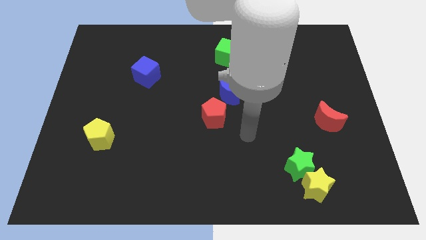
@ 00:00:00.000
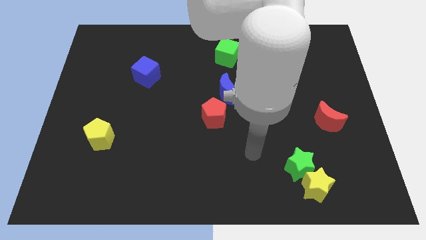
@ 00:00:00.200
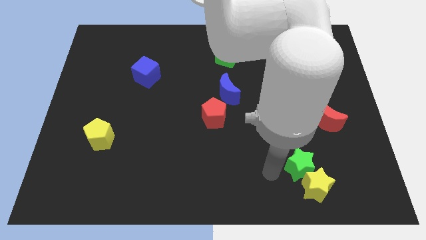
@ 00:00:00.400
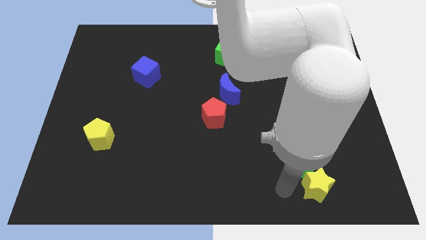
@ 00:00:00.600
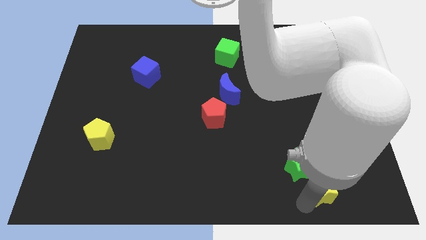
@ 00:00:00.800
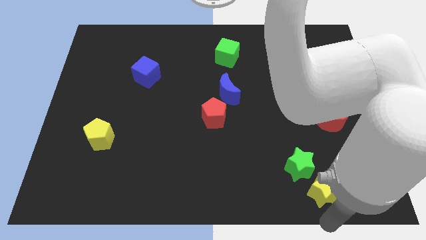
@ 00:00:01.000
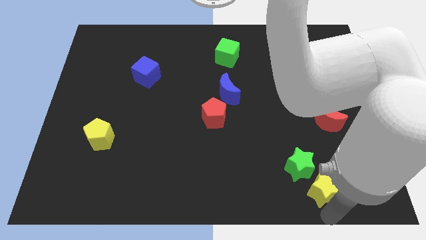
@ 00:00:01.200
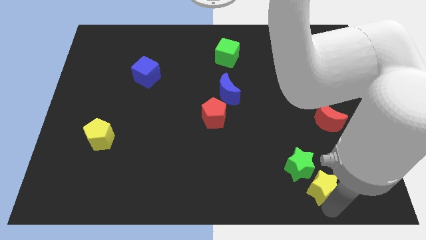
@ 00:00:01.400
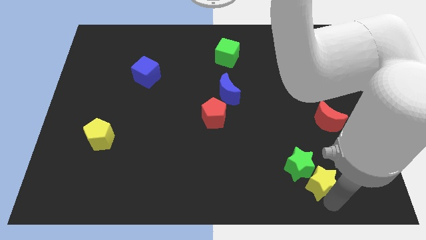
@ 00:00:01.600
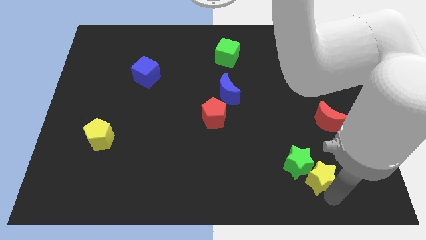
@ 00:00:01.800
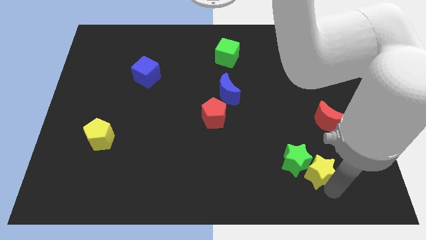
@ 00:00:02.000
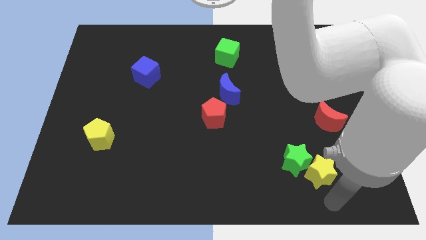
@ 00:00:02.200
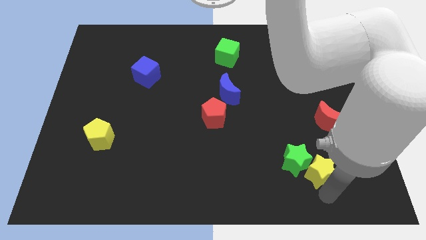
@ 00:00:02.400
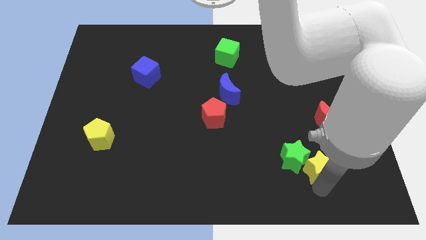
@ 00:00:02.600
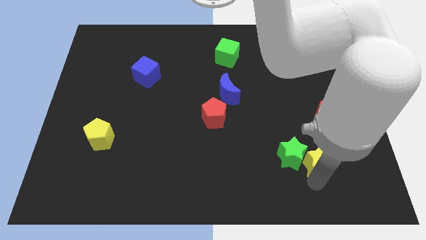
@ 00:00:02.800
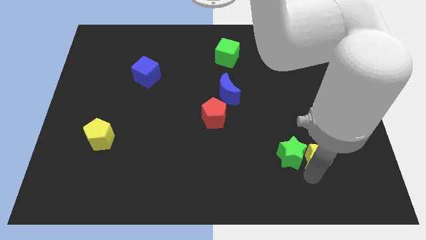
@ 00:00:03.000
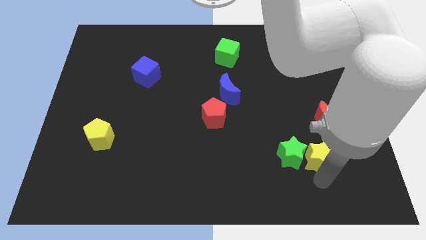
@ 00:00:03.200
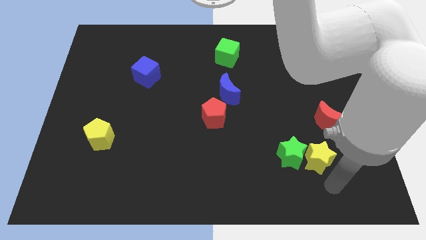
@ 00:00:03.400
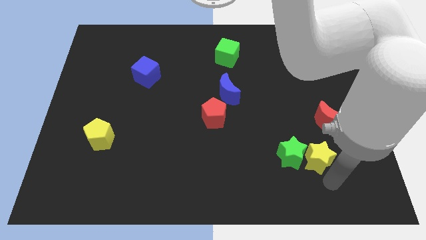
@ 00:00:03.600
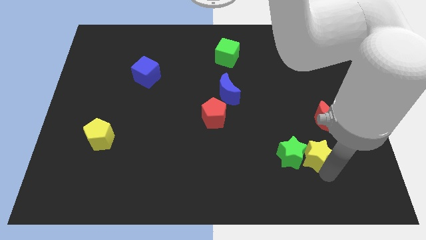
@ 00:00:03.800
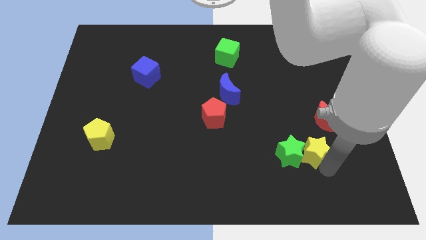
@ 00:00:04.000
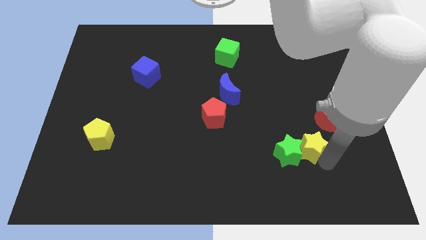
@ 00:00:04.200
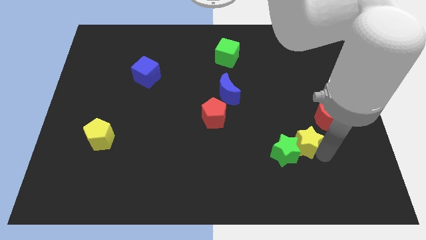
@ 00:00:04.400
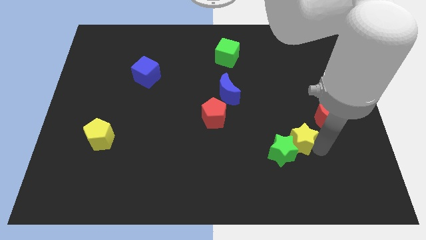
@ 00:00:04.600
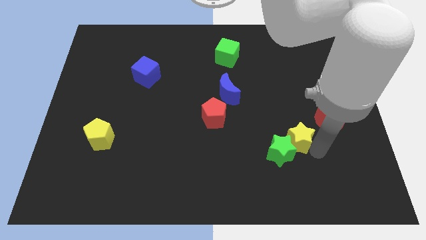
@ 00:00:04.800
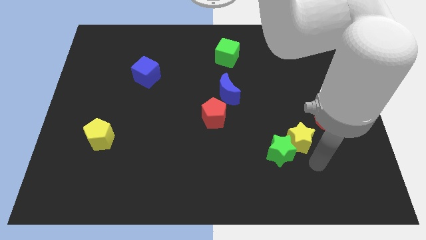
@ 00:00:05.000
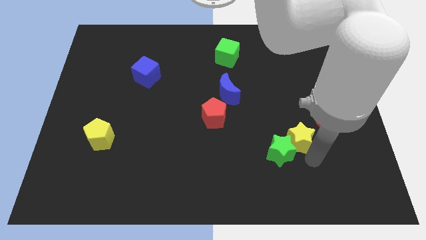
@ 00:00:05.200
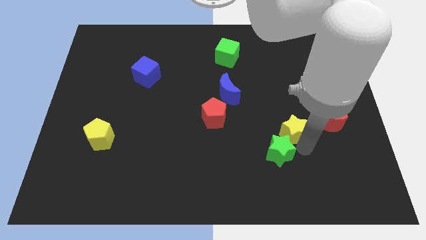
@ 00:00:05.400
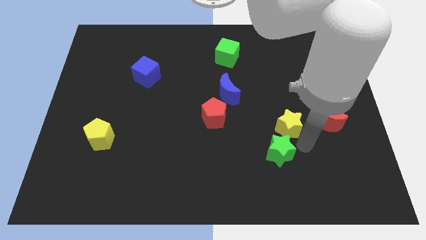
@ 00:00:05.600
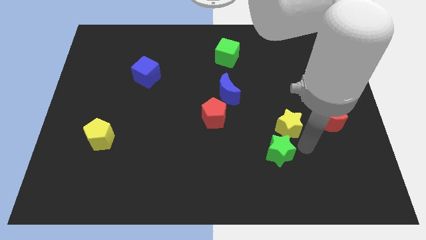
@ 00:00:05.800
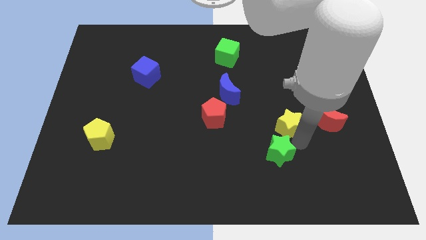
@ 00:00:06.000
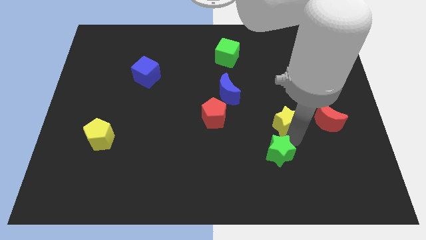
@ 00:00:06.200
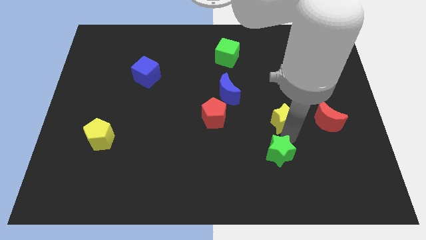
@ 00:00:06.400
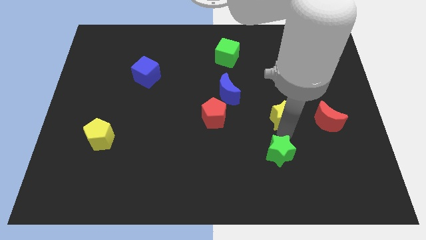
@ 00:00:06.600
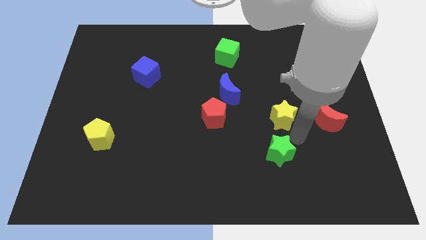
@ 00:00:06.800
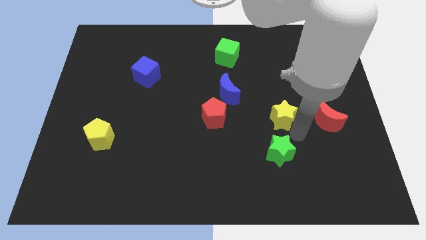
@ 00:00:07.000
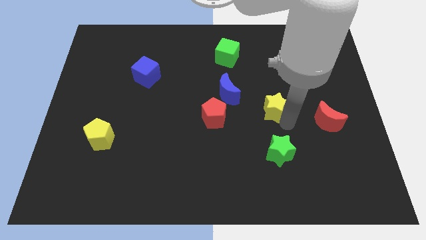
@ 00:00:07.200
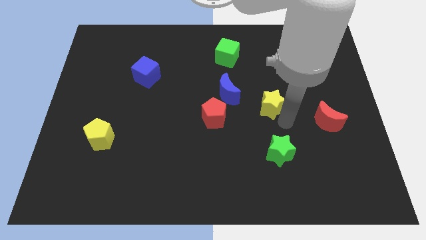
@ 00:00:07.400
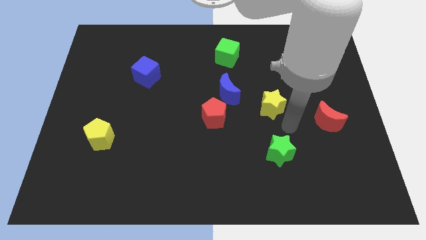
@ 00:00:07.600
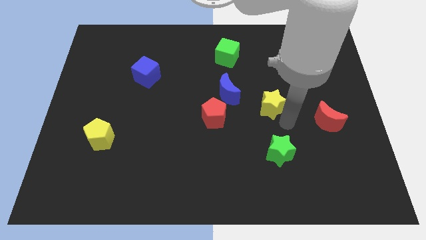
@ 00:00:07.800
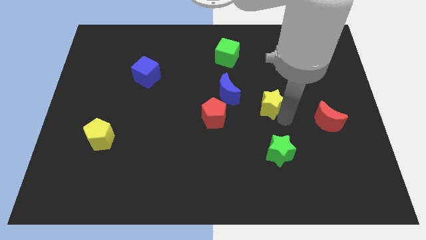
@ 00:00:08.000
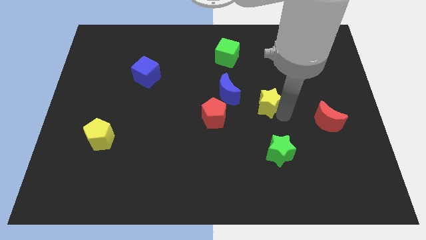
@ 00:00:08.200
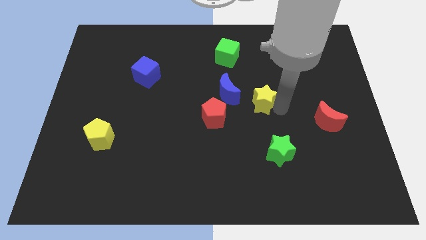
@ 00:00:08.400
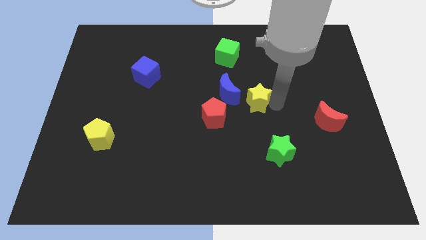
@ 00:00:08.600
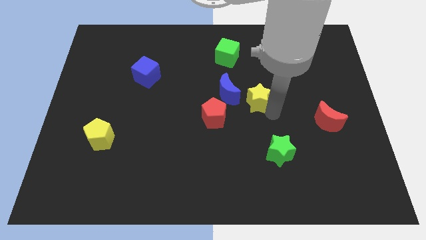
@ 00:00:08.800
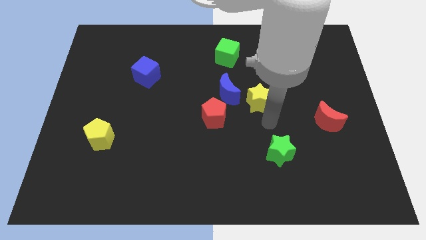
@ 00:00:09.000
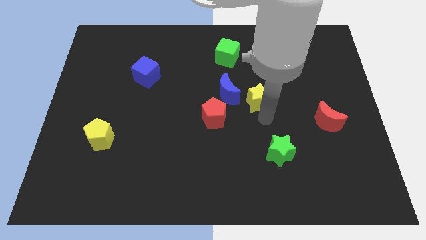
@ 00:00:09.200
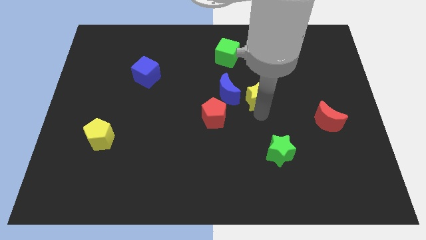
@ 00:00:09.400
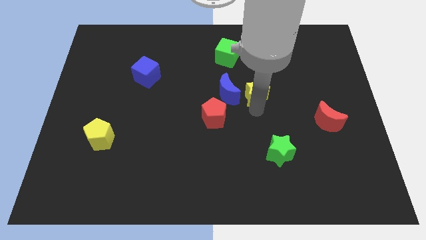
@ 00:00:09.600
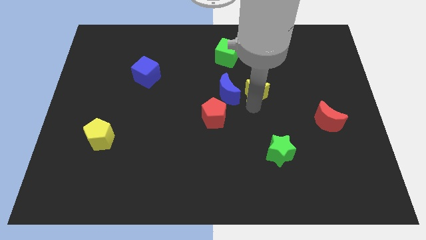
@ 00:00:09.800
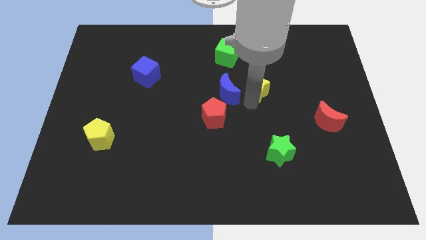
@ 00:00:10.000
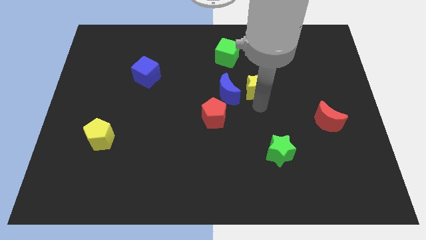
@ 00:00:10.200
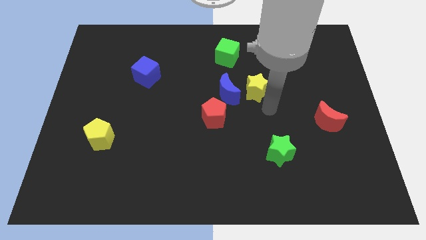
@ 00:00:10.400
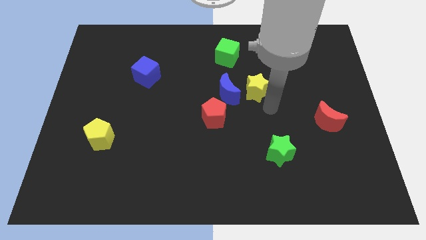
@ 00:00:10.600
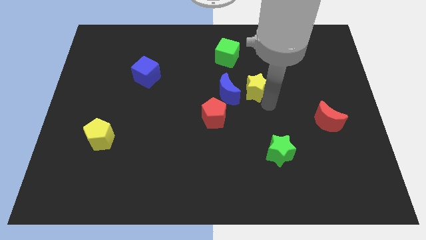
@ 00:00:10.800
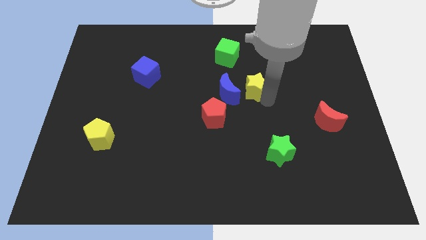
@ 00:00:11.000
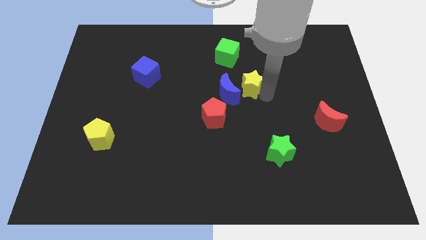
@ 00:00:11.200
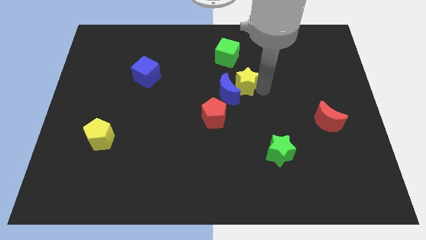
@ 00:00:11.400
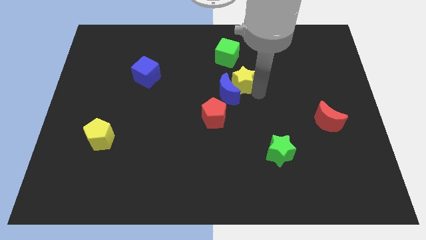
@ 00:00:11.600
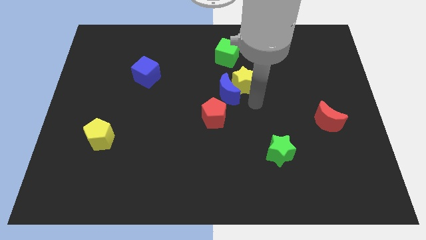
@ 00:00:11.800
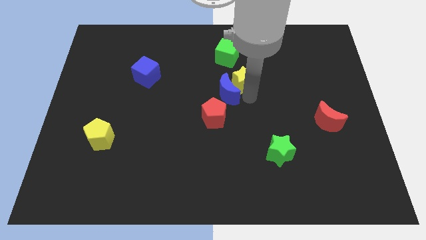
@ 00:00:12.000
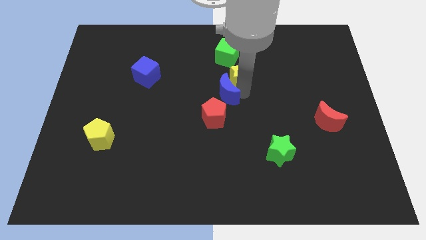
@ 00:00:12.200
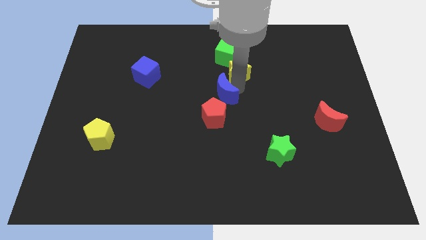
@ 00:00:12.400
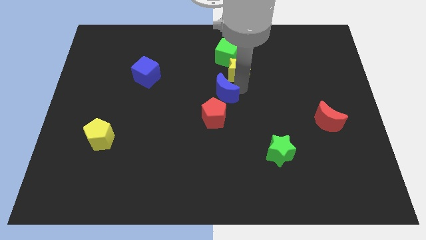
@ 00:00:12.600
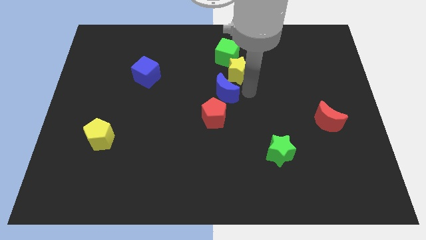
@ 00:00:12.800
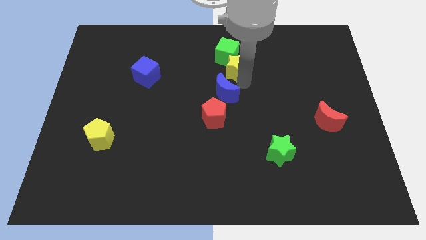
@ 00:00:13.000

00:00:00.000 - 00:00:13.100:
slide the yellow star towards the green cube
